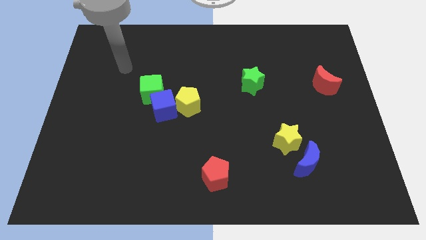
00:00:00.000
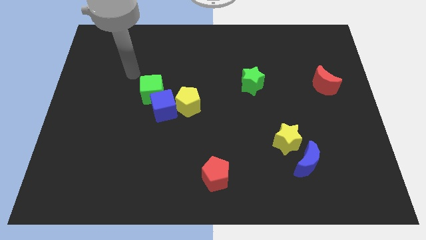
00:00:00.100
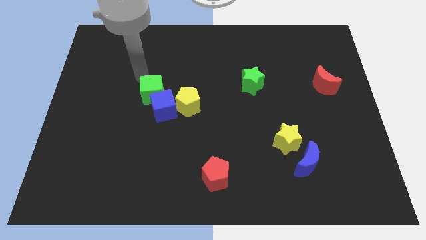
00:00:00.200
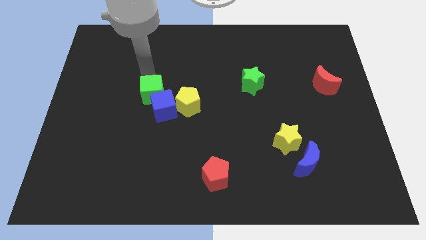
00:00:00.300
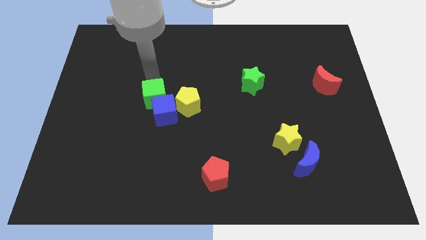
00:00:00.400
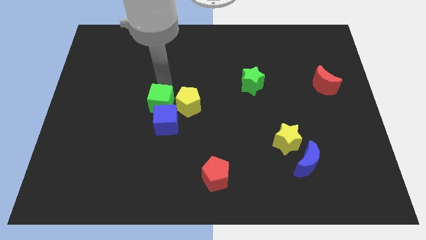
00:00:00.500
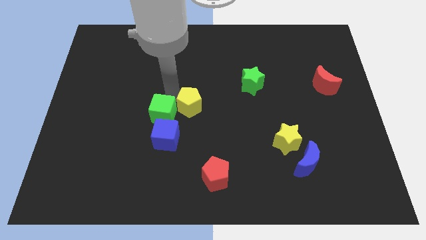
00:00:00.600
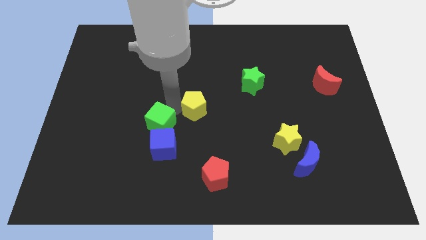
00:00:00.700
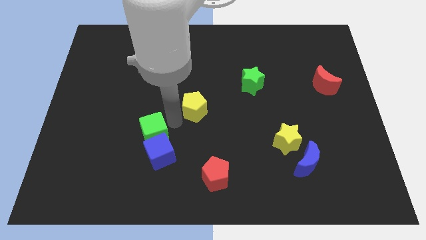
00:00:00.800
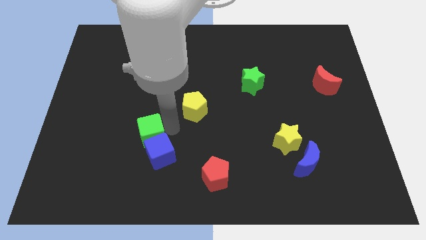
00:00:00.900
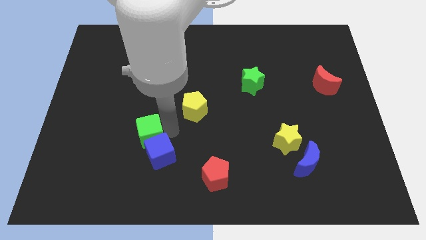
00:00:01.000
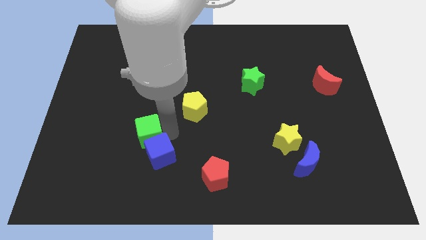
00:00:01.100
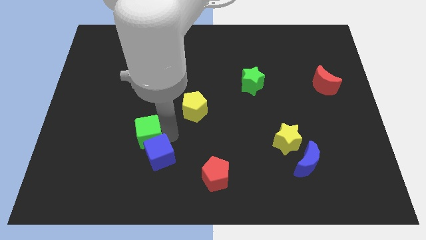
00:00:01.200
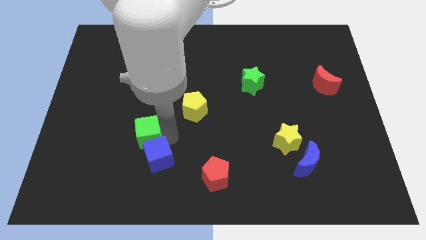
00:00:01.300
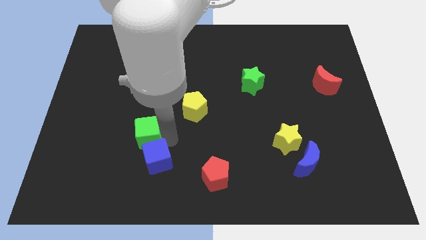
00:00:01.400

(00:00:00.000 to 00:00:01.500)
move the blue cube away from the yellow pentagon and green cube

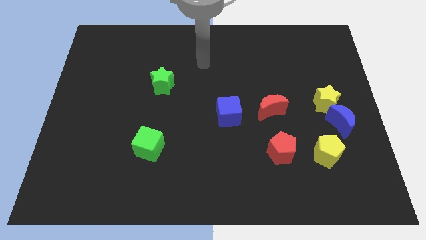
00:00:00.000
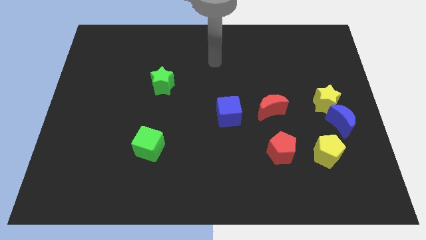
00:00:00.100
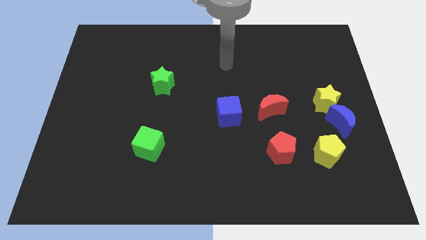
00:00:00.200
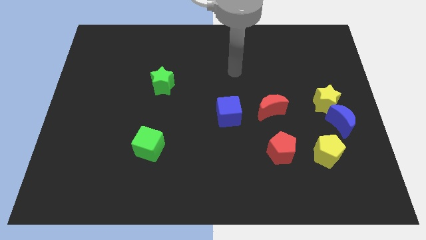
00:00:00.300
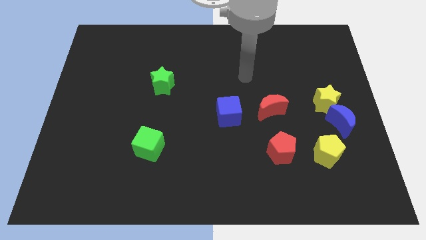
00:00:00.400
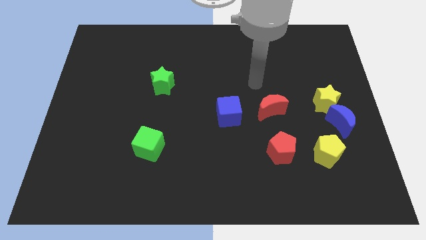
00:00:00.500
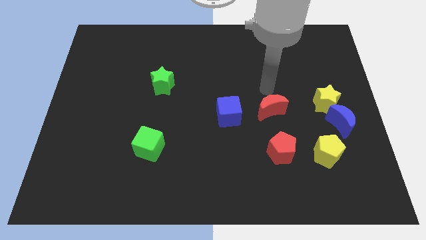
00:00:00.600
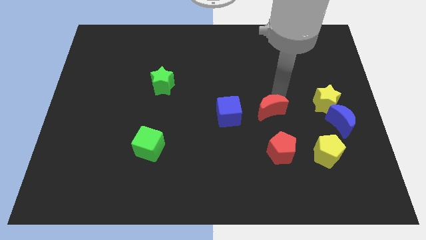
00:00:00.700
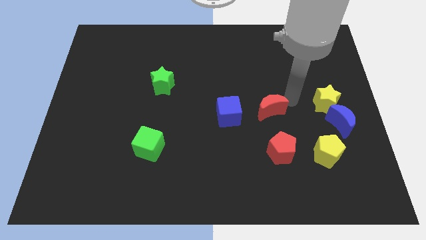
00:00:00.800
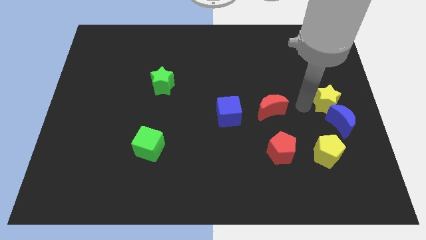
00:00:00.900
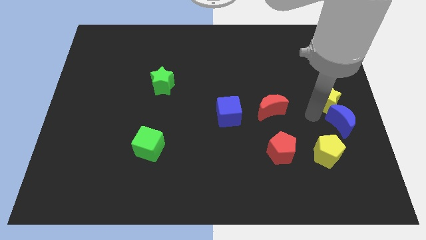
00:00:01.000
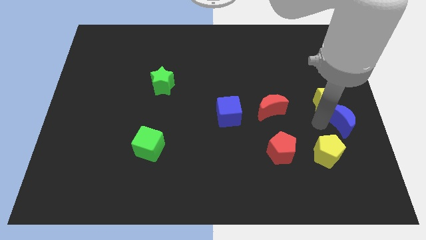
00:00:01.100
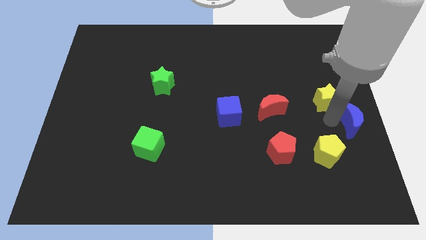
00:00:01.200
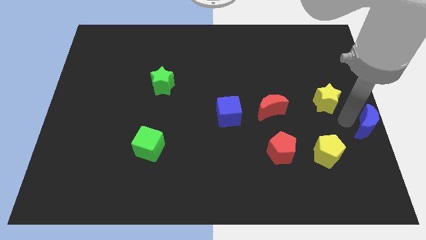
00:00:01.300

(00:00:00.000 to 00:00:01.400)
pull the yellow star apart from the blue moon

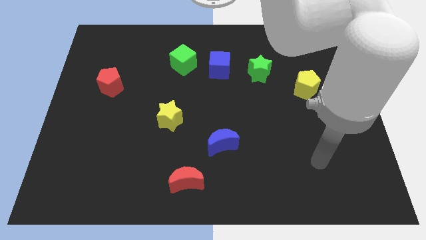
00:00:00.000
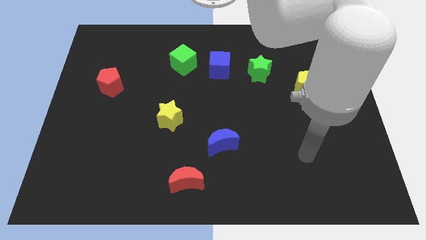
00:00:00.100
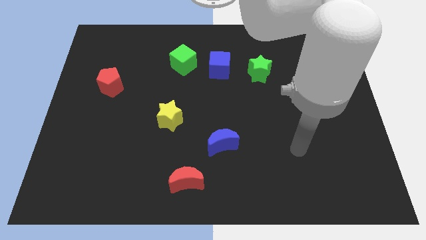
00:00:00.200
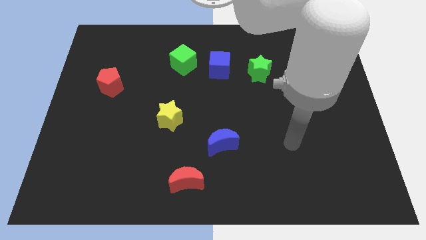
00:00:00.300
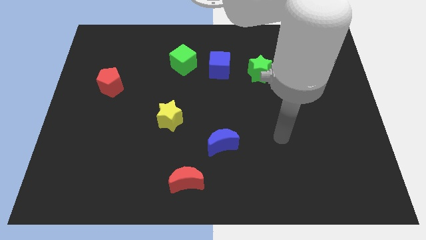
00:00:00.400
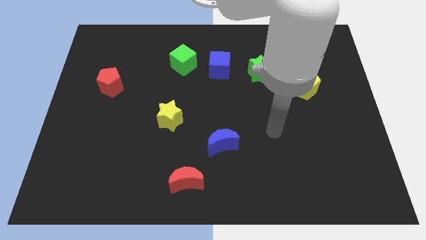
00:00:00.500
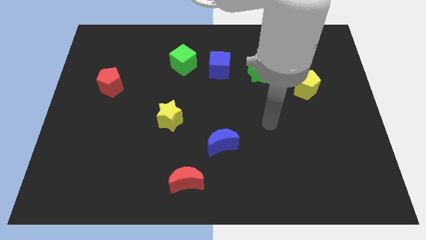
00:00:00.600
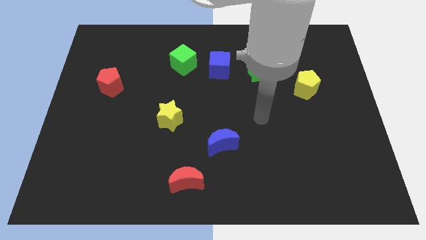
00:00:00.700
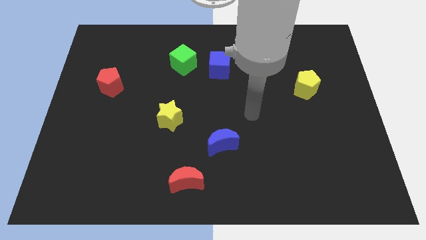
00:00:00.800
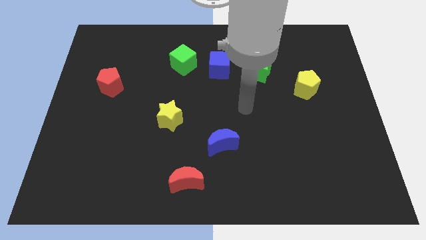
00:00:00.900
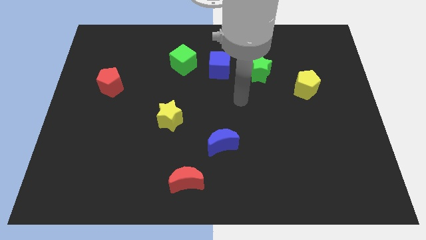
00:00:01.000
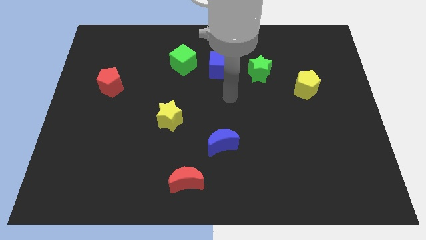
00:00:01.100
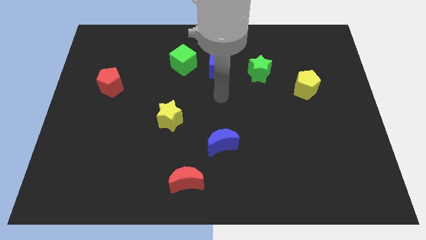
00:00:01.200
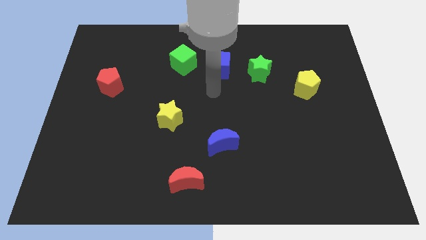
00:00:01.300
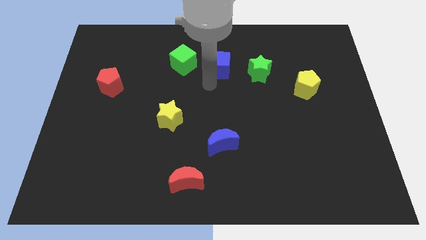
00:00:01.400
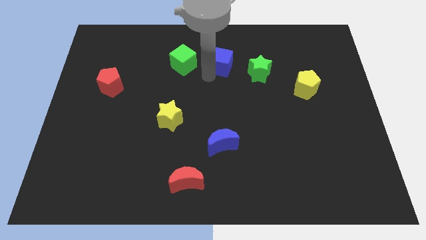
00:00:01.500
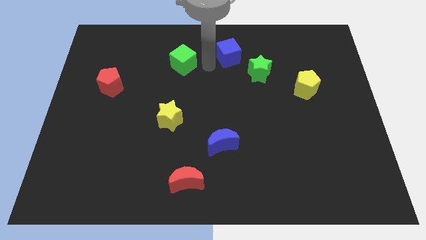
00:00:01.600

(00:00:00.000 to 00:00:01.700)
separate the green cube from the blue cube

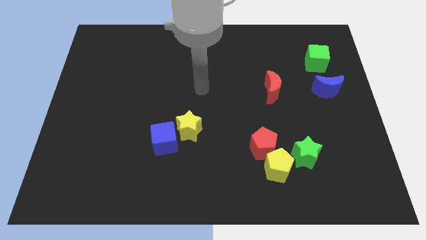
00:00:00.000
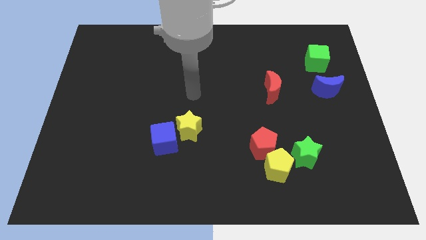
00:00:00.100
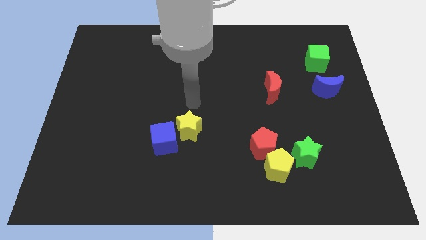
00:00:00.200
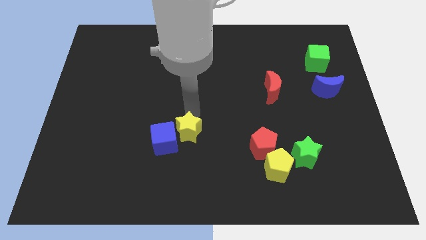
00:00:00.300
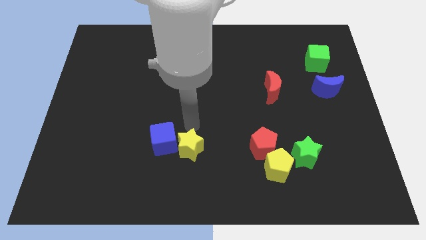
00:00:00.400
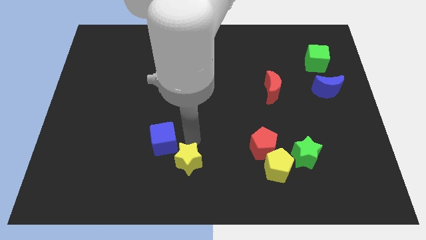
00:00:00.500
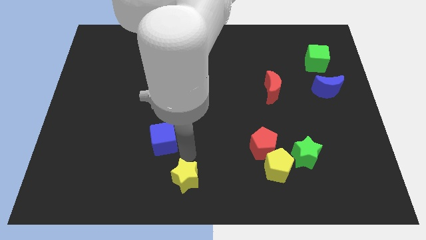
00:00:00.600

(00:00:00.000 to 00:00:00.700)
separate the blue cube from the yellow star

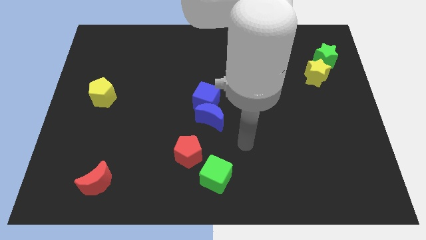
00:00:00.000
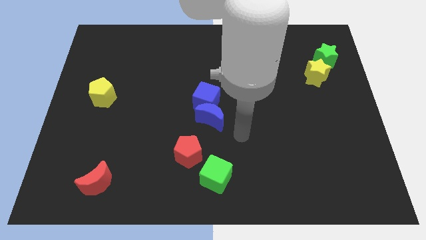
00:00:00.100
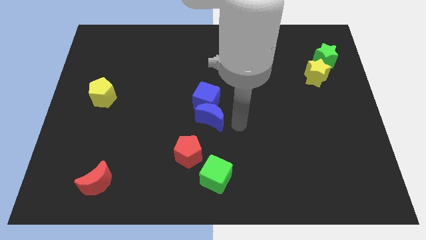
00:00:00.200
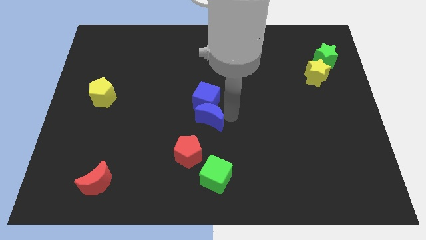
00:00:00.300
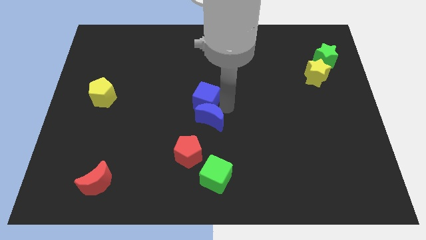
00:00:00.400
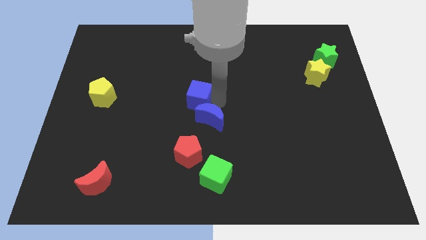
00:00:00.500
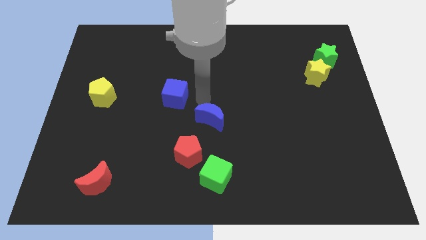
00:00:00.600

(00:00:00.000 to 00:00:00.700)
pull the blue moon apart from the blue cube

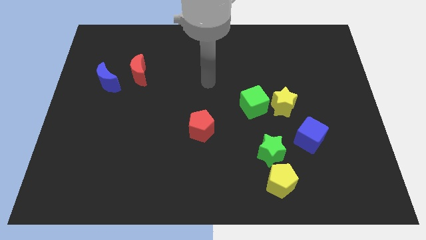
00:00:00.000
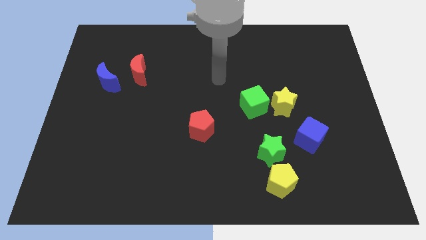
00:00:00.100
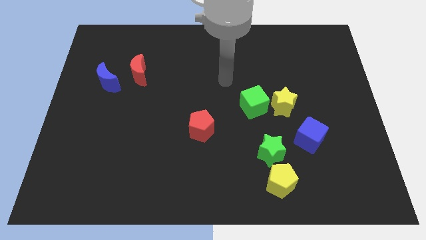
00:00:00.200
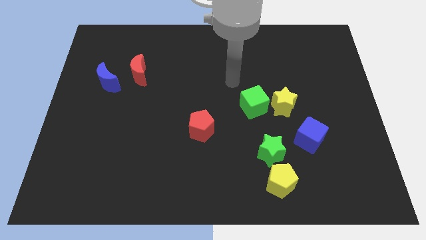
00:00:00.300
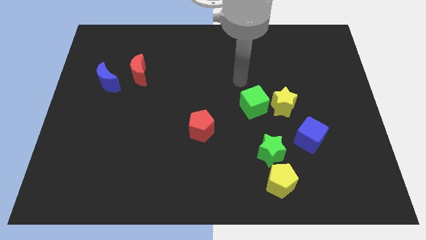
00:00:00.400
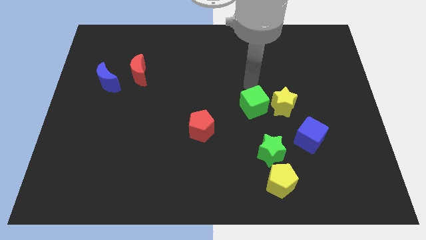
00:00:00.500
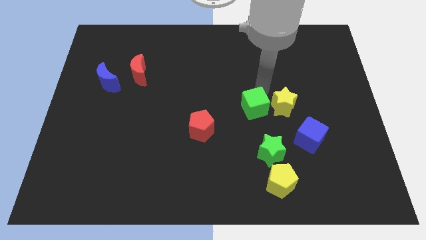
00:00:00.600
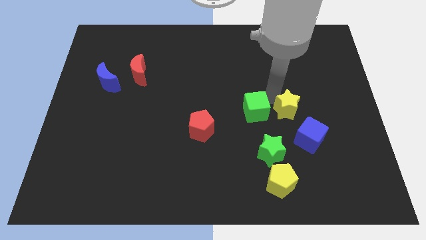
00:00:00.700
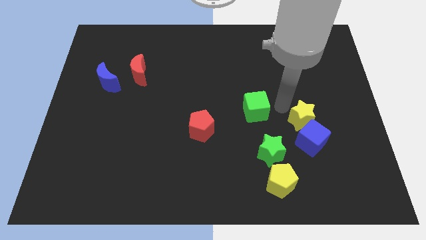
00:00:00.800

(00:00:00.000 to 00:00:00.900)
pull the green cube apart from the yellow star

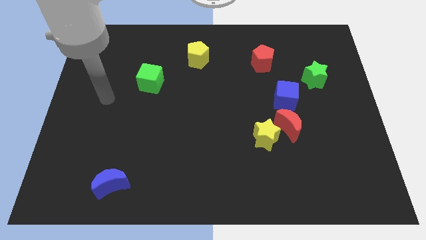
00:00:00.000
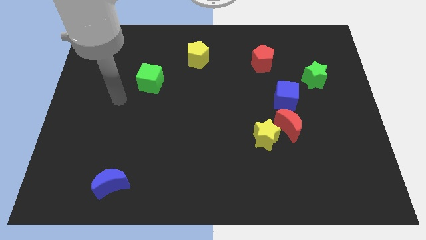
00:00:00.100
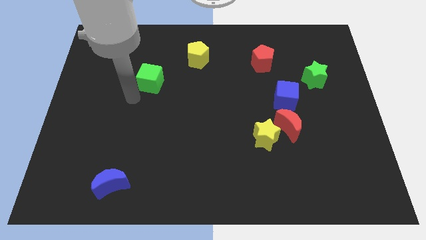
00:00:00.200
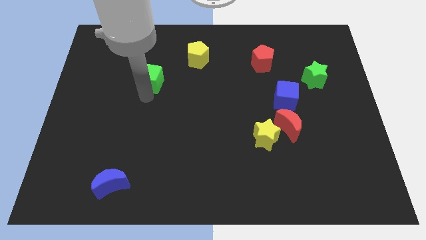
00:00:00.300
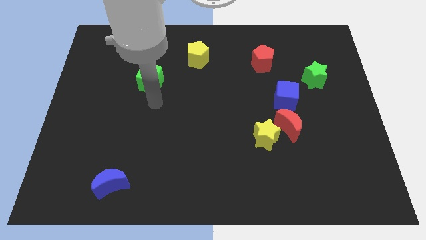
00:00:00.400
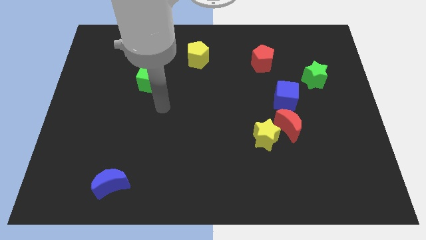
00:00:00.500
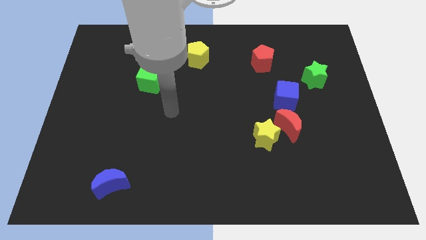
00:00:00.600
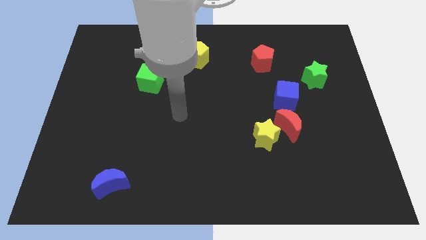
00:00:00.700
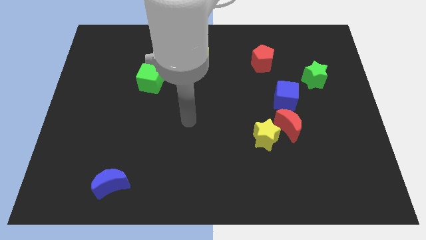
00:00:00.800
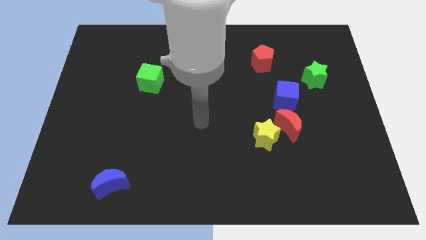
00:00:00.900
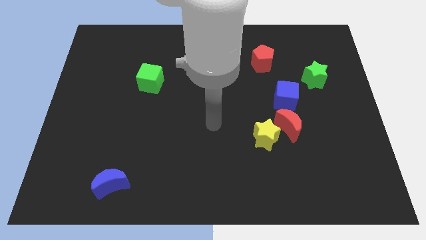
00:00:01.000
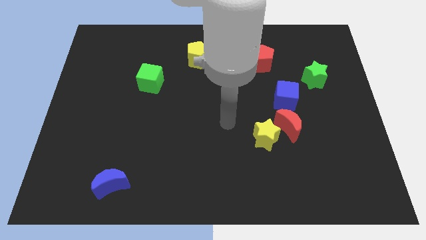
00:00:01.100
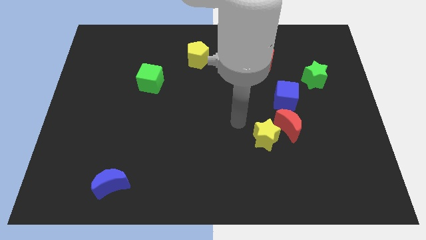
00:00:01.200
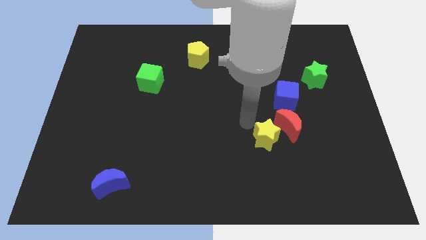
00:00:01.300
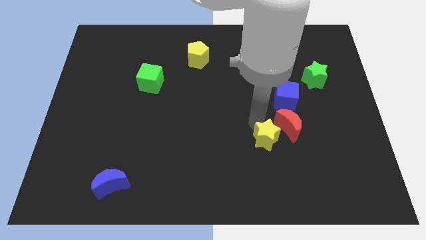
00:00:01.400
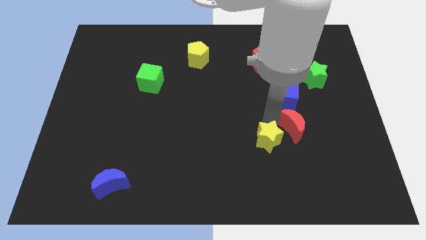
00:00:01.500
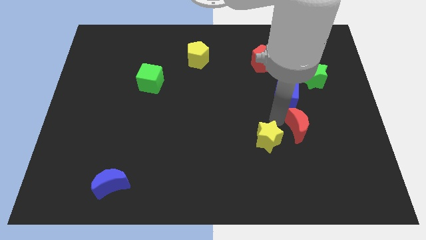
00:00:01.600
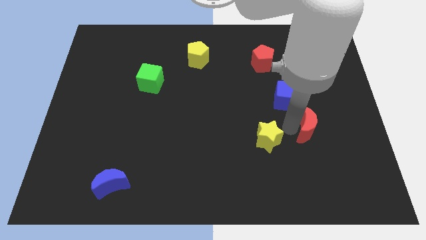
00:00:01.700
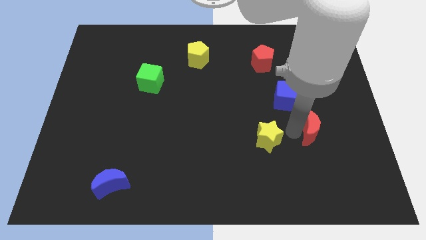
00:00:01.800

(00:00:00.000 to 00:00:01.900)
separate the yellow star from the red moon

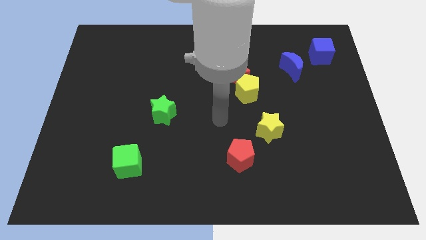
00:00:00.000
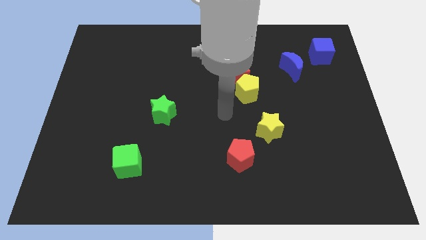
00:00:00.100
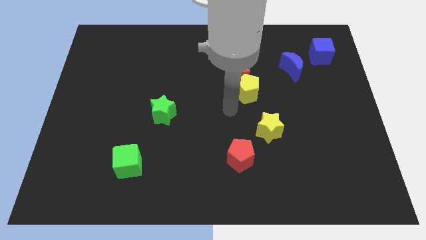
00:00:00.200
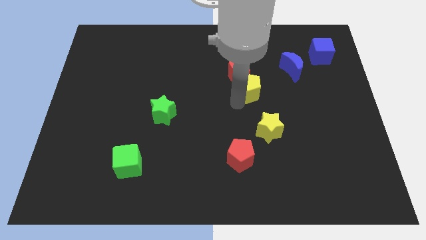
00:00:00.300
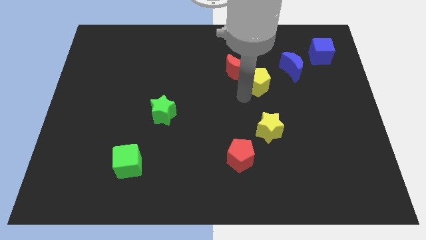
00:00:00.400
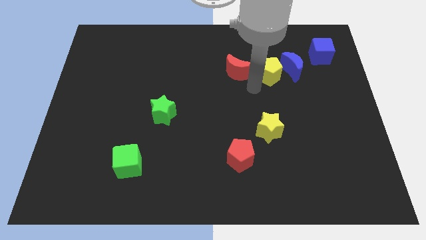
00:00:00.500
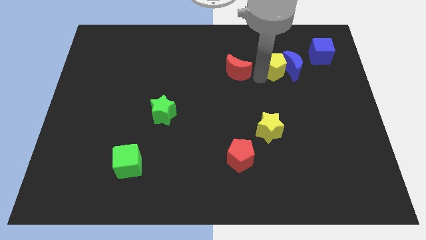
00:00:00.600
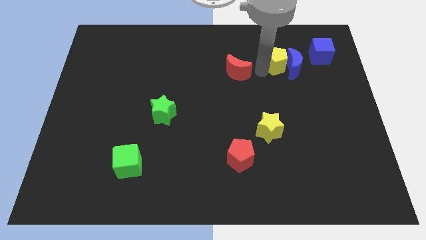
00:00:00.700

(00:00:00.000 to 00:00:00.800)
separate the red moon from the yellow pentagon
